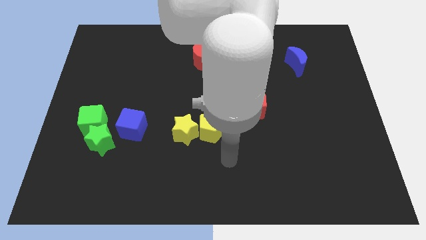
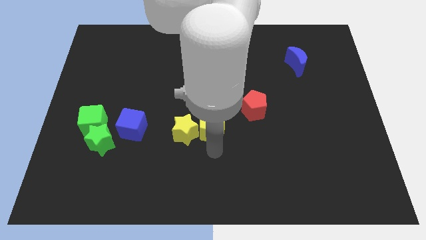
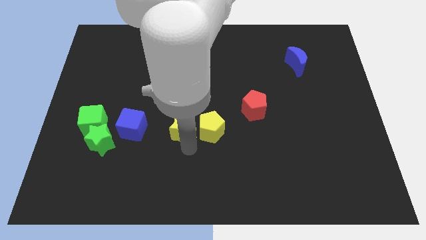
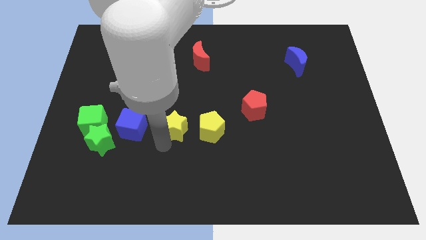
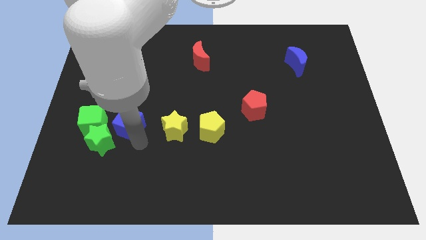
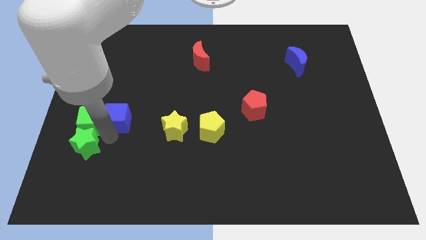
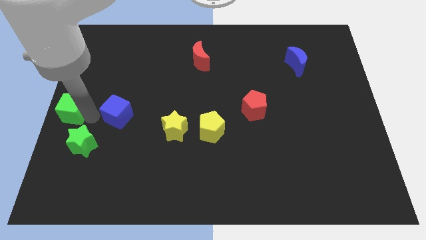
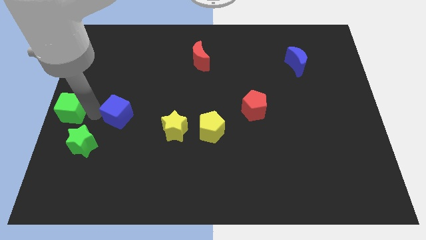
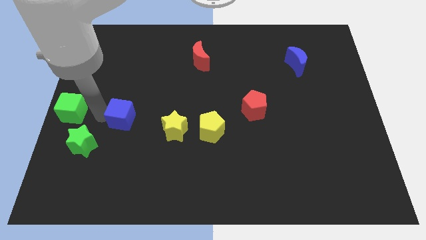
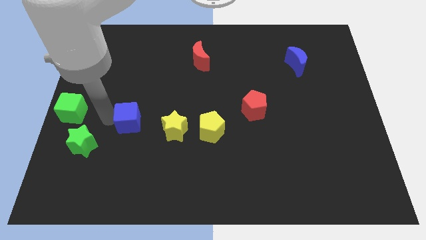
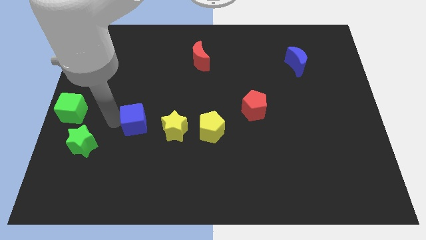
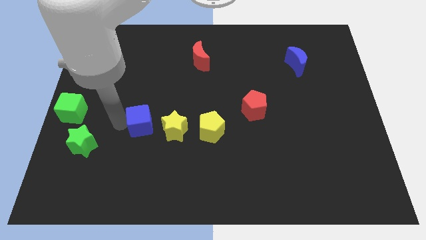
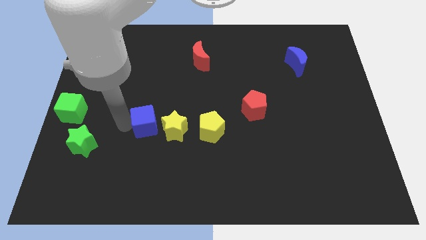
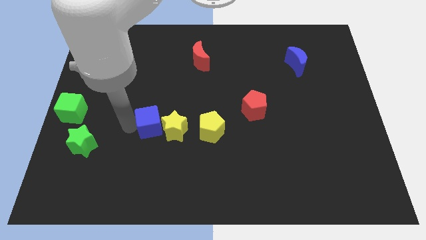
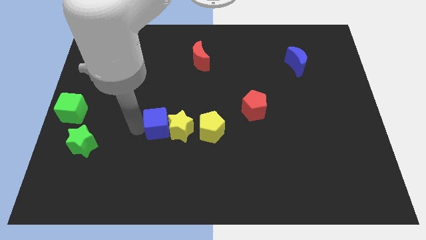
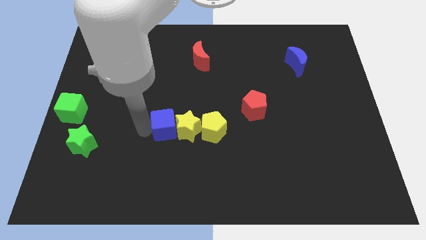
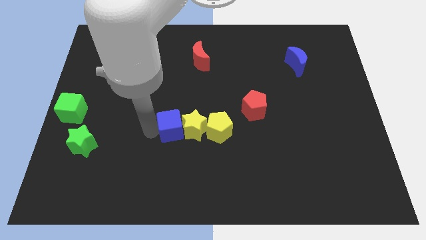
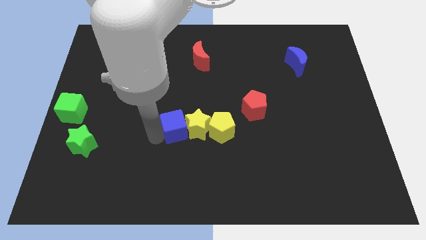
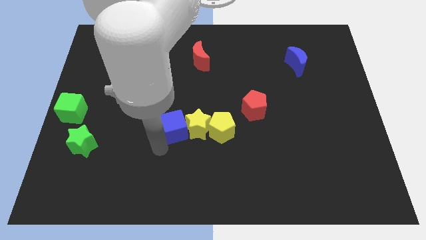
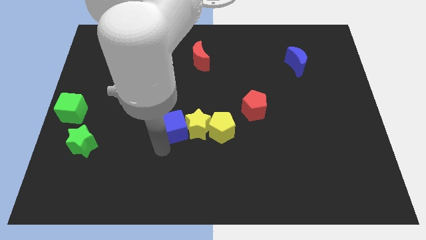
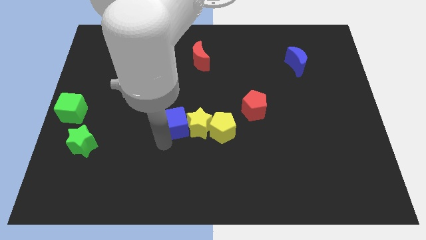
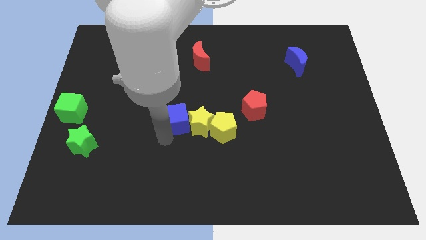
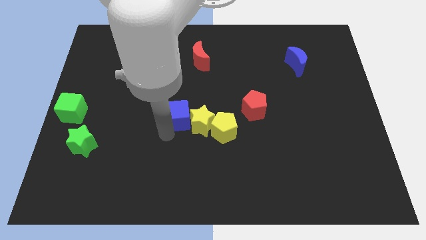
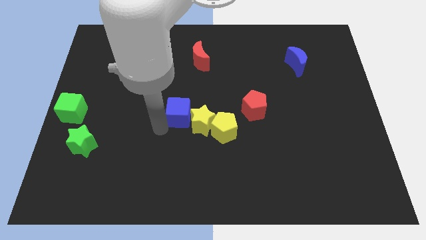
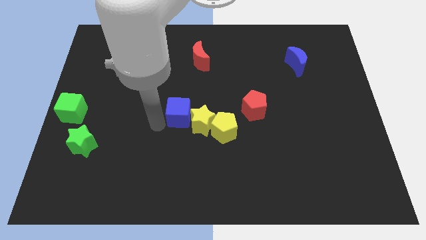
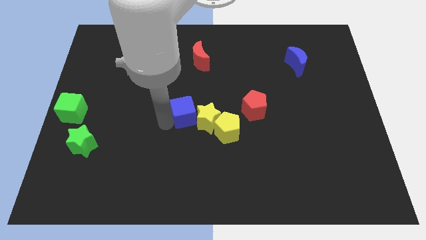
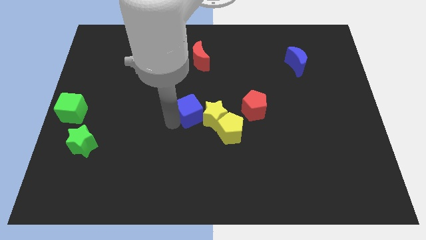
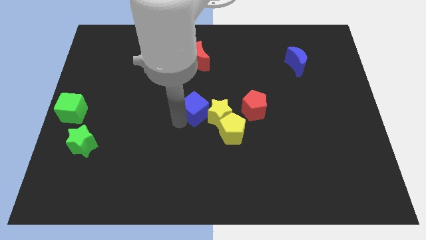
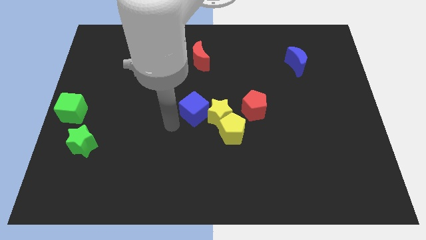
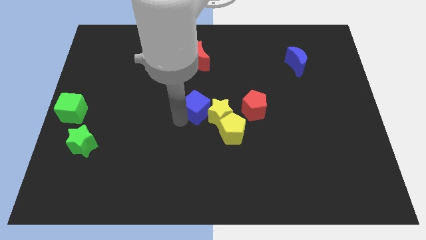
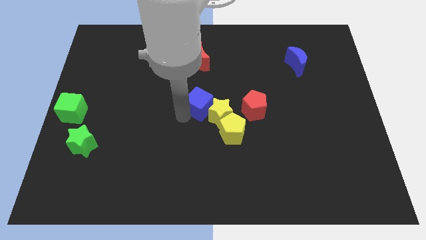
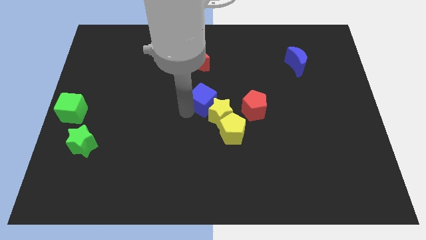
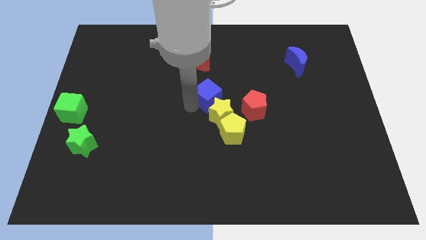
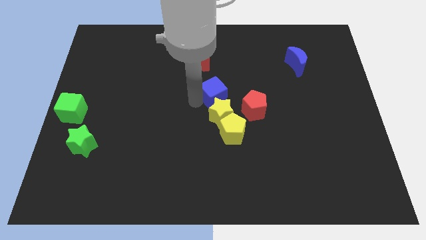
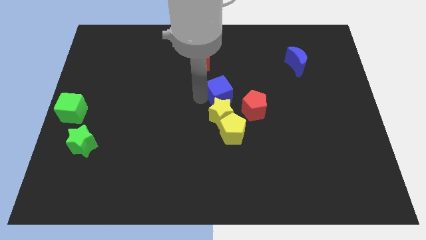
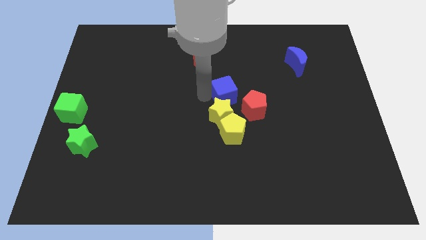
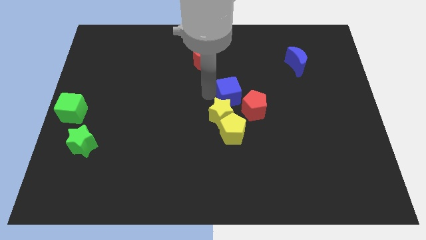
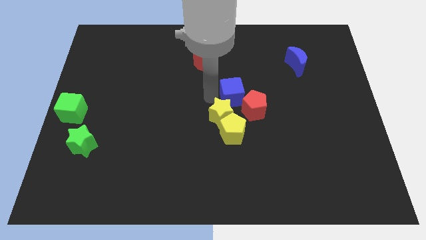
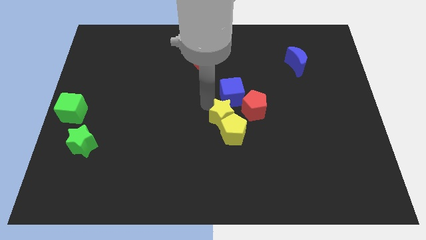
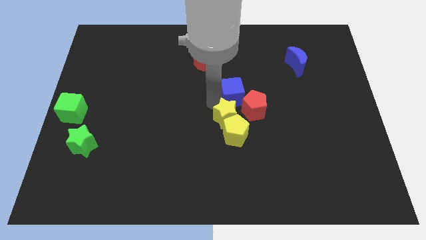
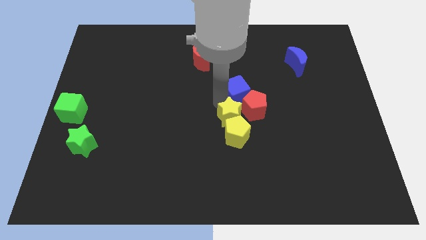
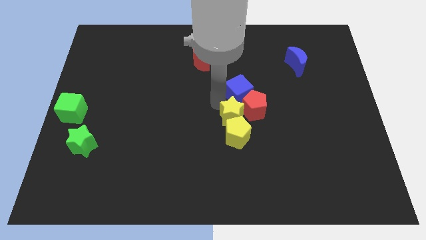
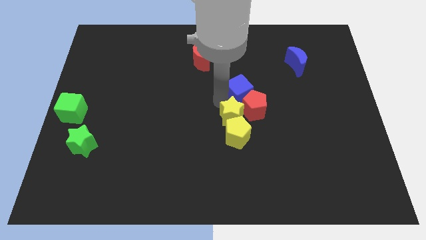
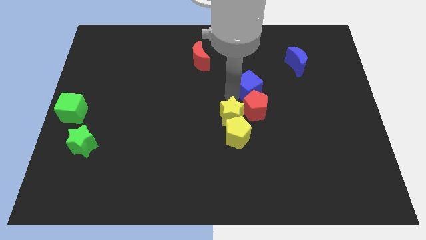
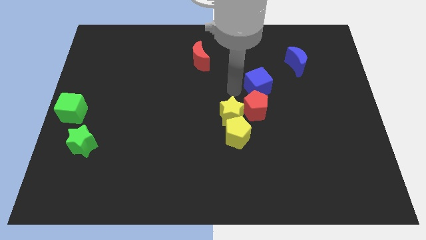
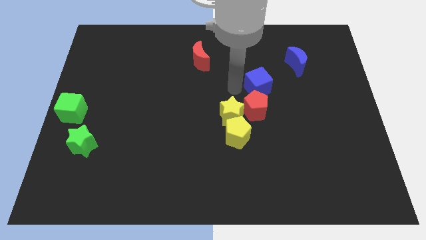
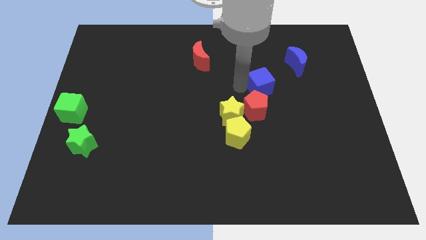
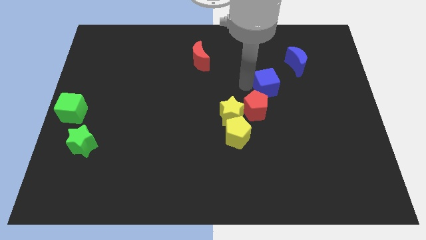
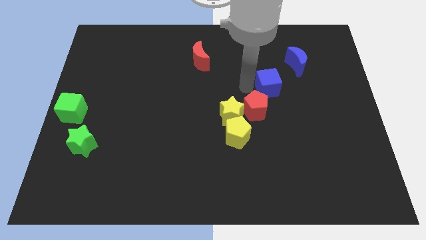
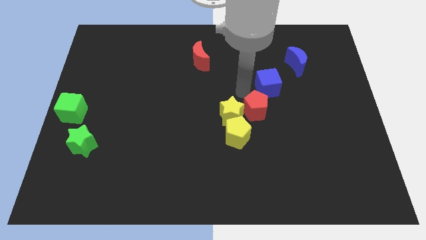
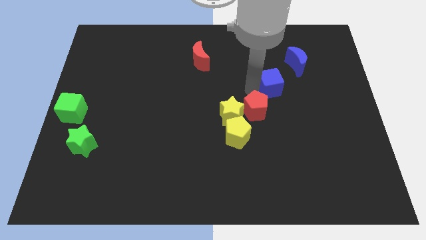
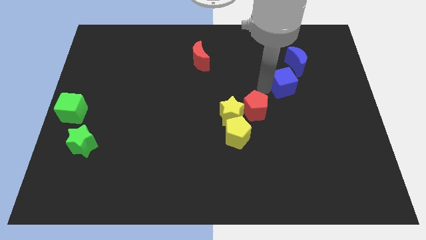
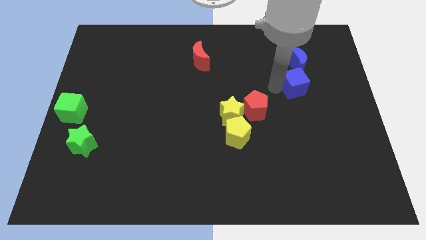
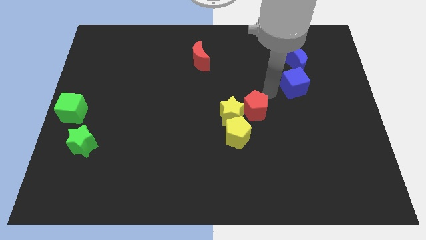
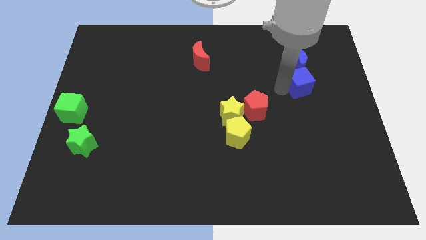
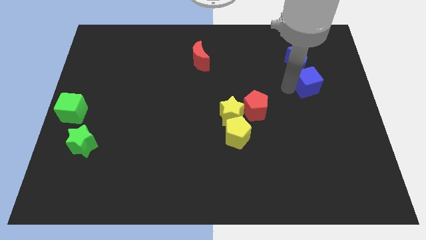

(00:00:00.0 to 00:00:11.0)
put the blue cube to the bottom right side of the blue moon

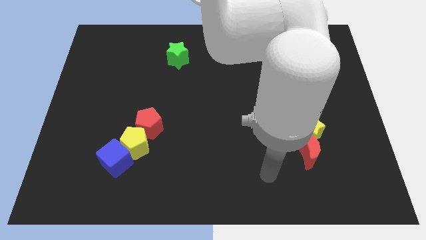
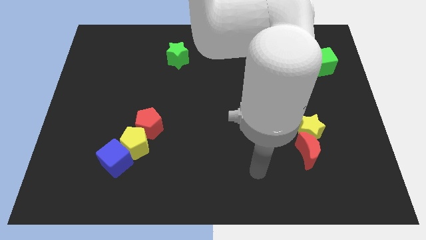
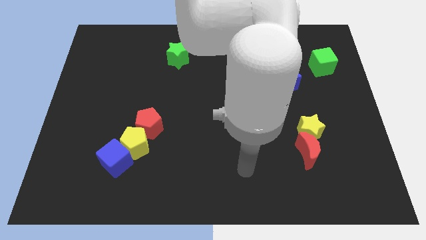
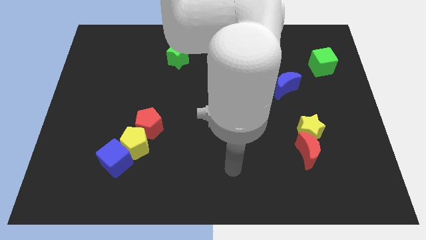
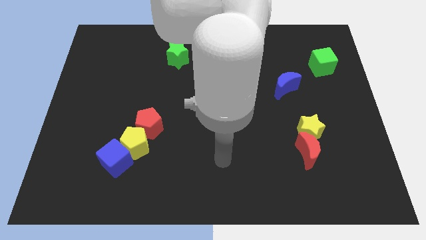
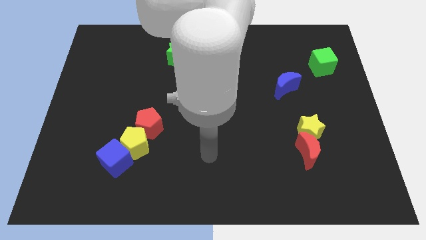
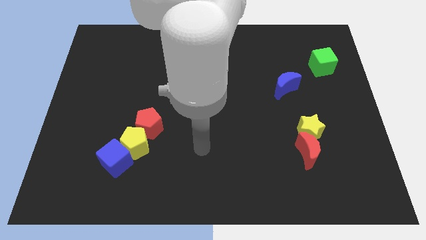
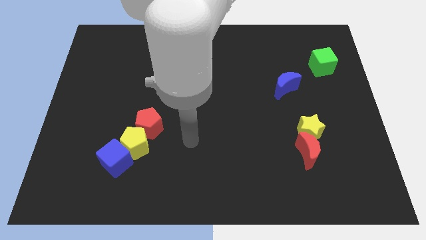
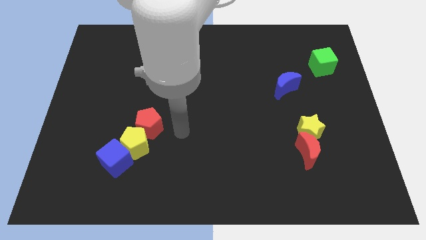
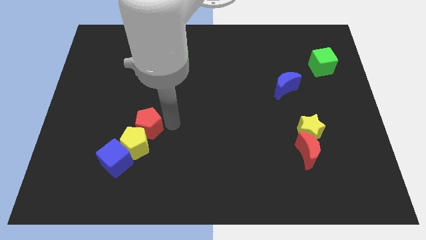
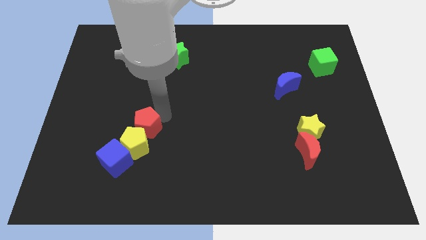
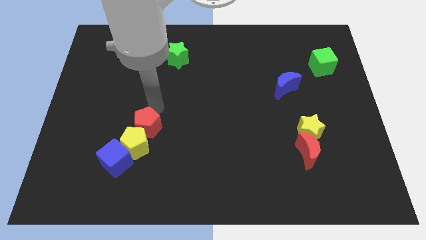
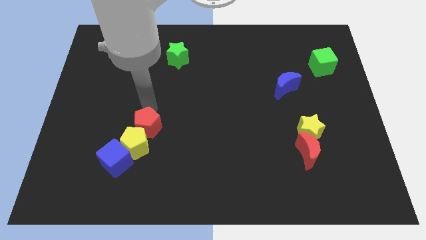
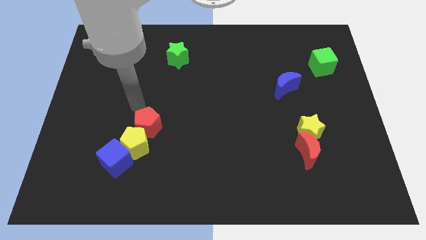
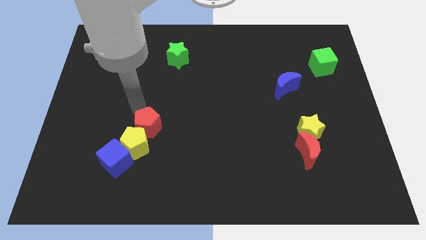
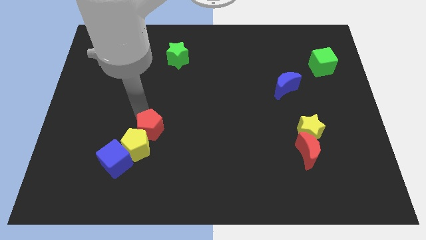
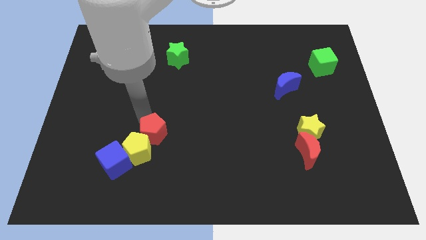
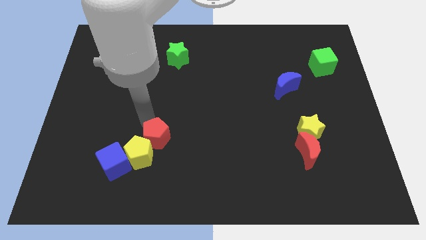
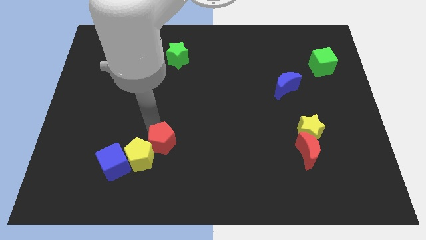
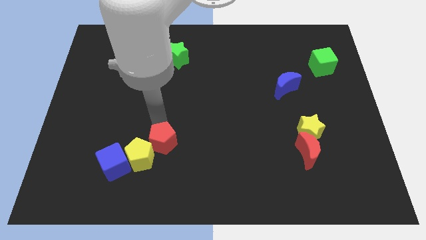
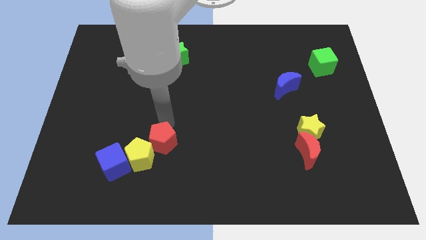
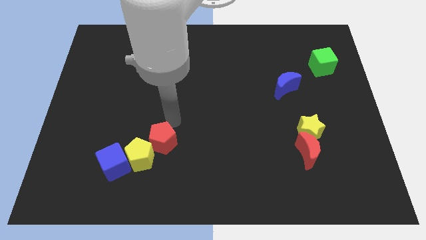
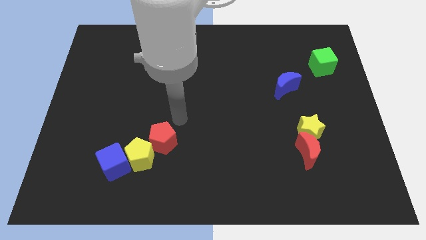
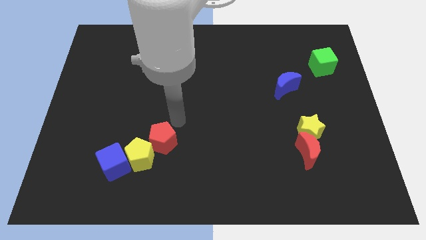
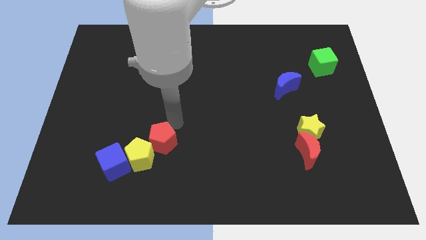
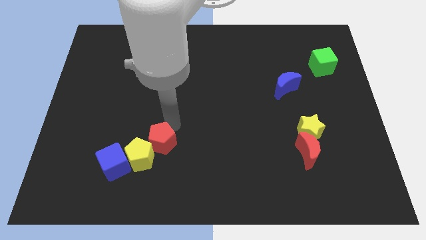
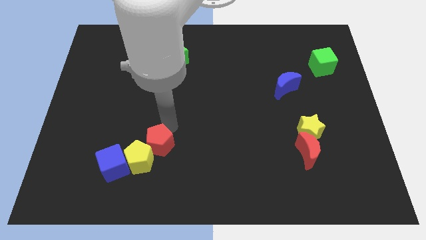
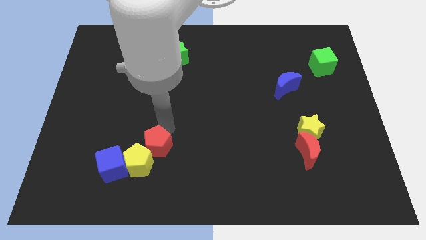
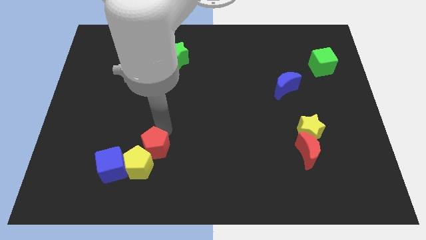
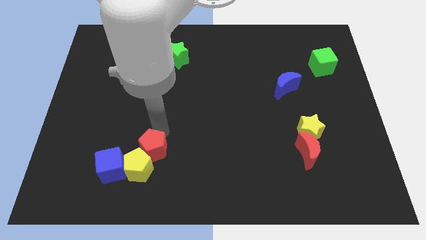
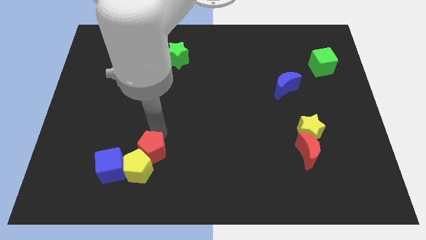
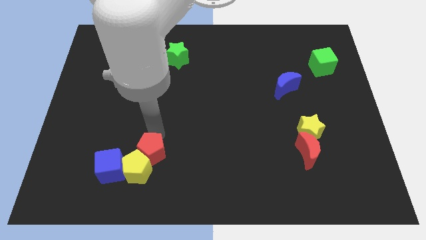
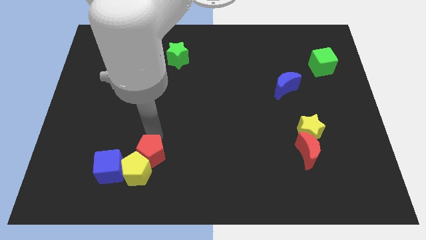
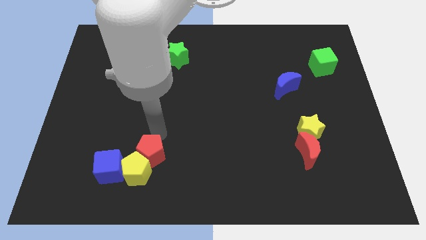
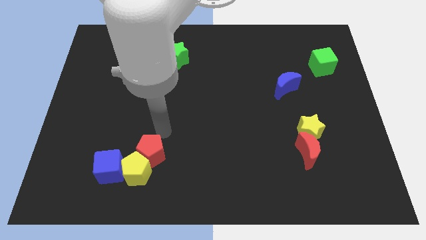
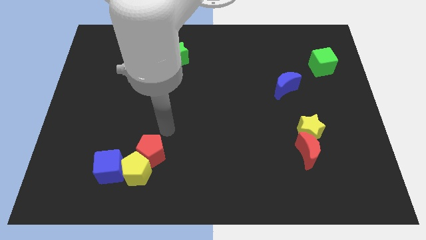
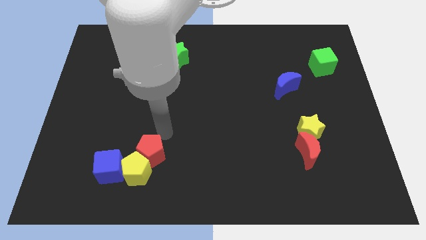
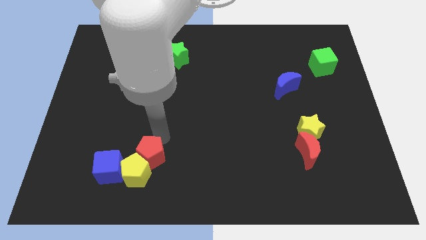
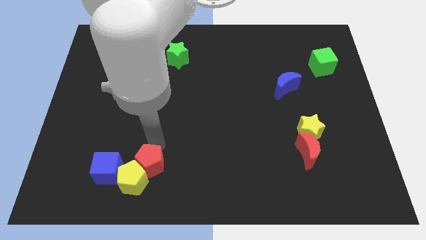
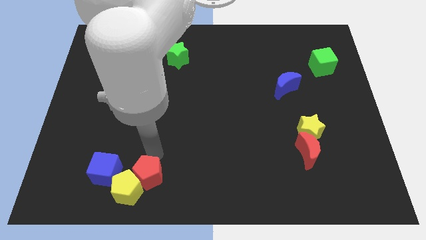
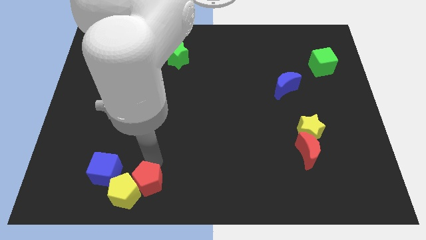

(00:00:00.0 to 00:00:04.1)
put the red pentagon diagonally down and to the right of the blue cube
